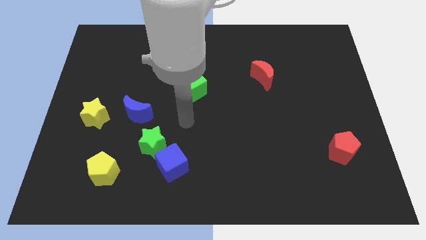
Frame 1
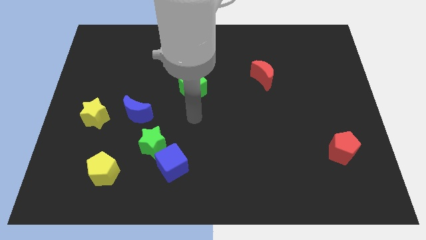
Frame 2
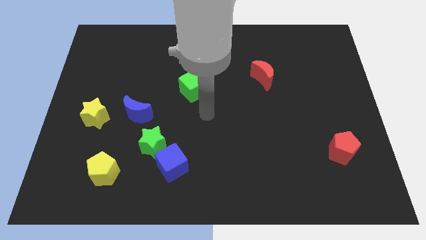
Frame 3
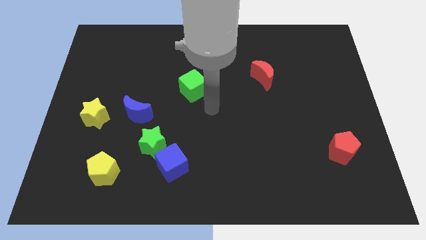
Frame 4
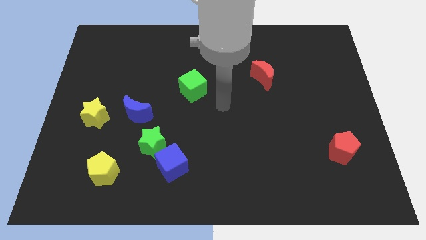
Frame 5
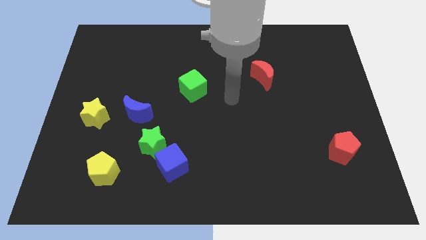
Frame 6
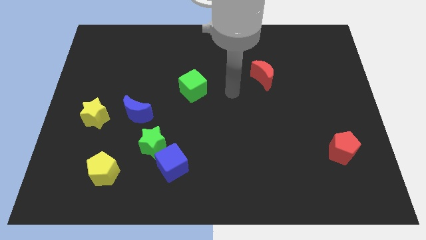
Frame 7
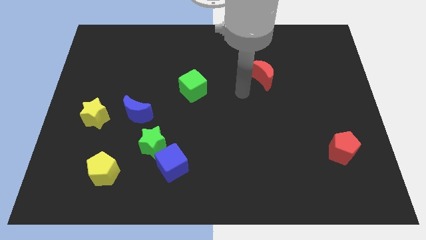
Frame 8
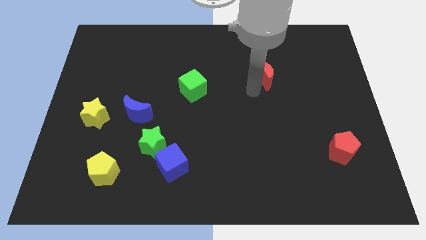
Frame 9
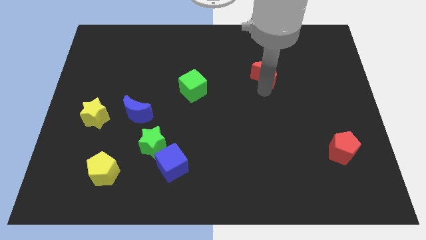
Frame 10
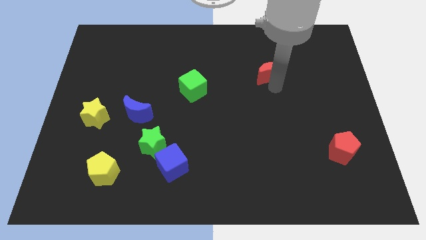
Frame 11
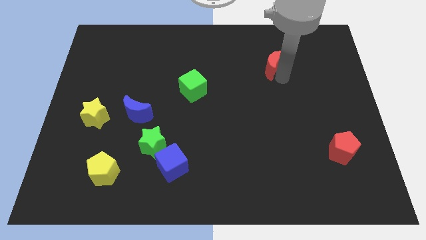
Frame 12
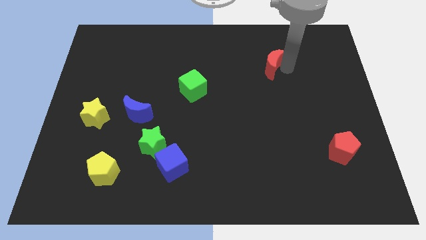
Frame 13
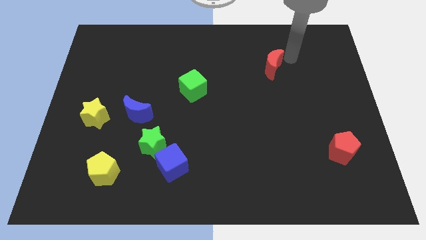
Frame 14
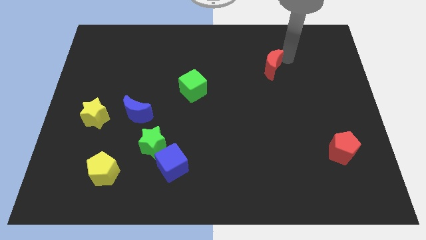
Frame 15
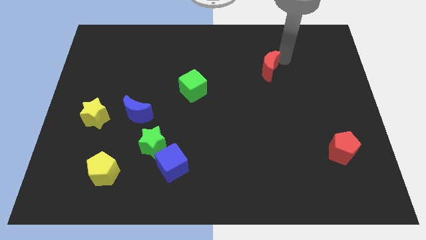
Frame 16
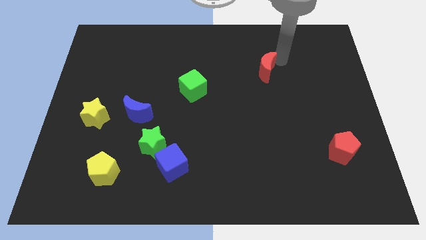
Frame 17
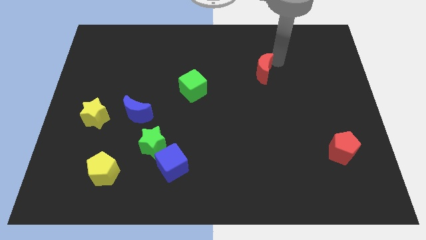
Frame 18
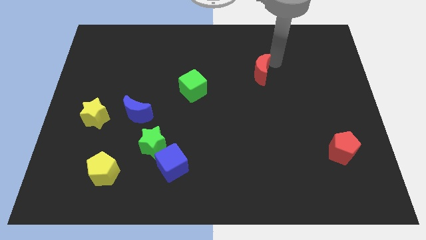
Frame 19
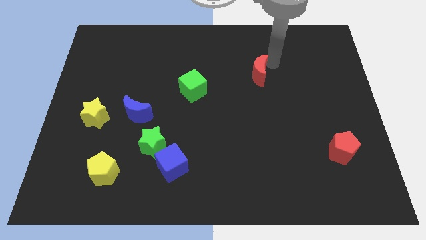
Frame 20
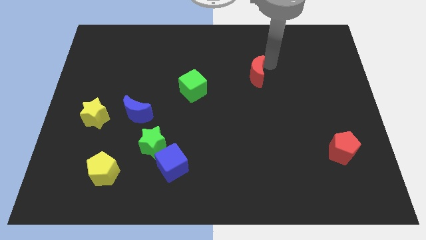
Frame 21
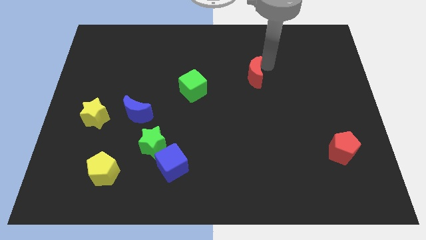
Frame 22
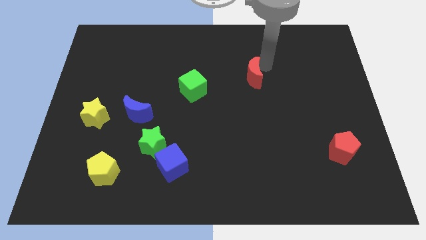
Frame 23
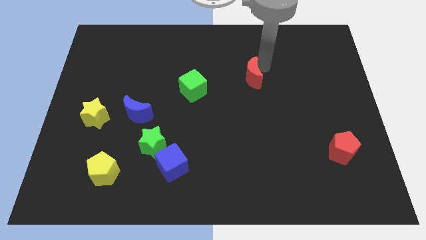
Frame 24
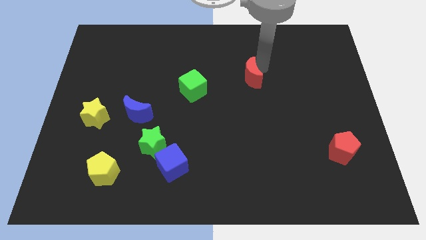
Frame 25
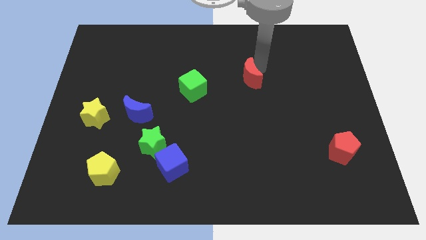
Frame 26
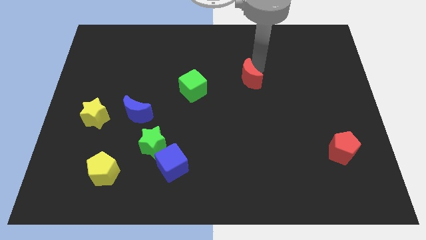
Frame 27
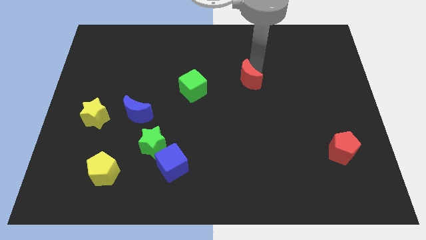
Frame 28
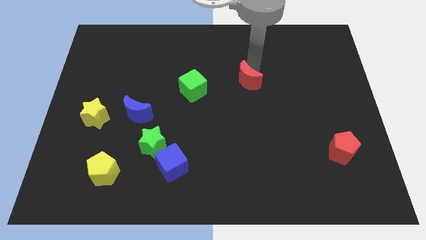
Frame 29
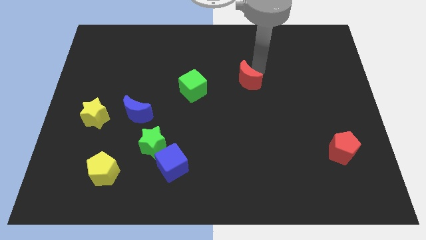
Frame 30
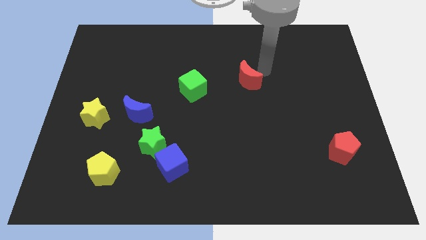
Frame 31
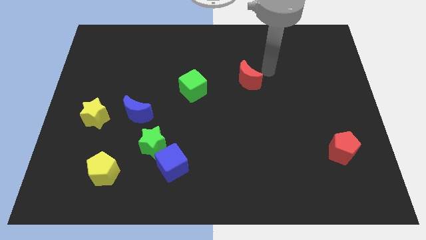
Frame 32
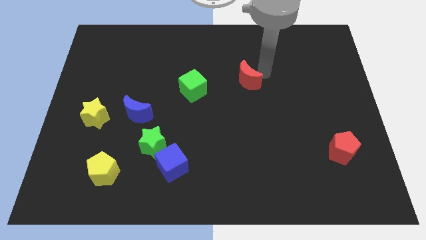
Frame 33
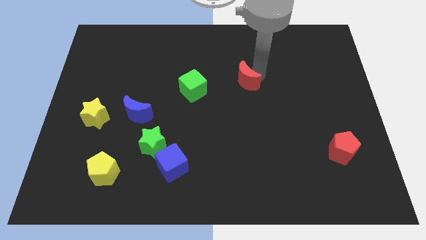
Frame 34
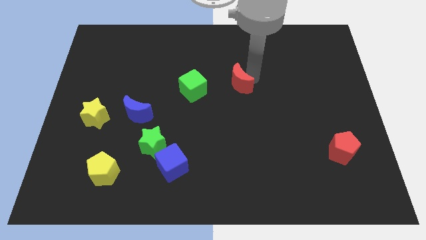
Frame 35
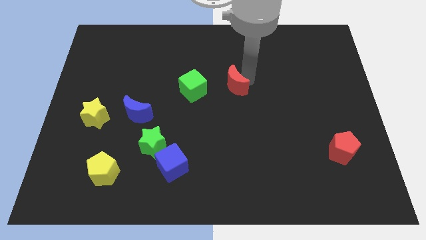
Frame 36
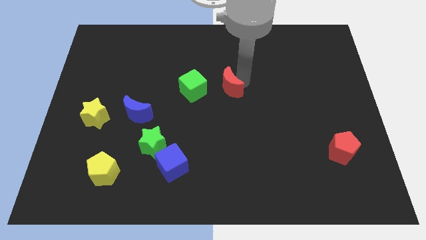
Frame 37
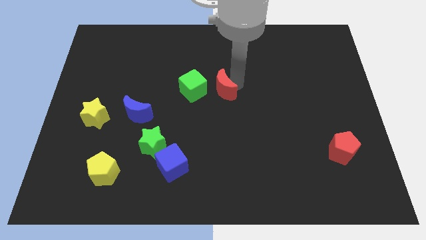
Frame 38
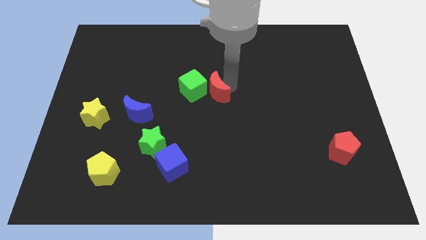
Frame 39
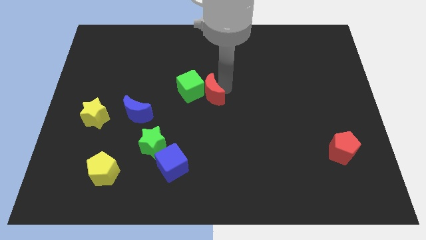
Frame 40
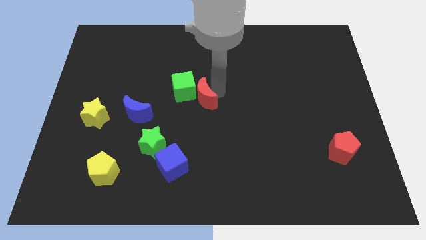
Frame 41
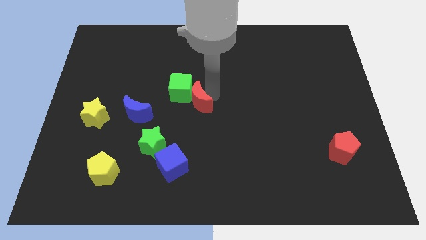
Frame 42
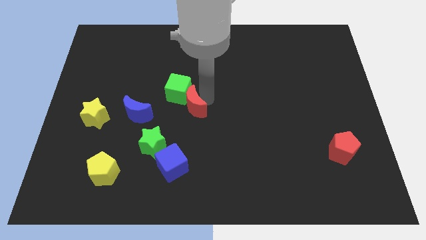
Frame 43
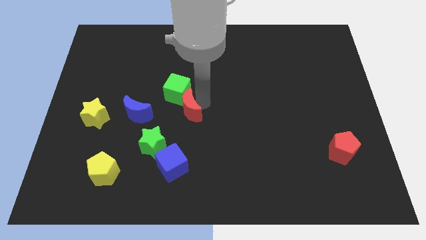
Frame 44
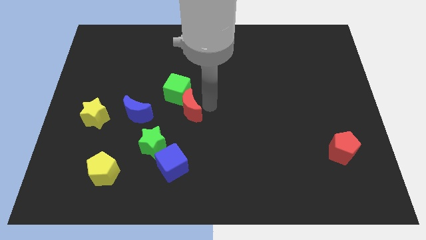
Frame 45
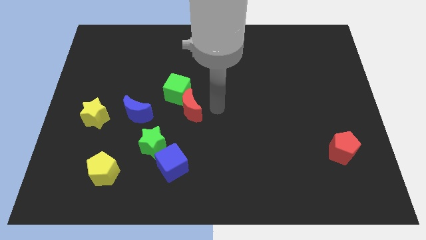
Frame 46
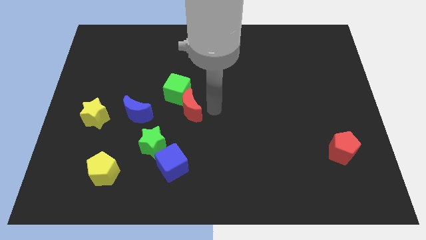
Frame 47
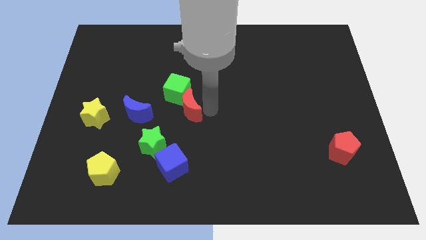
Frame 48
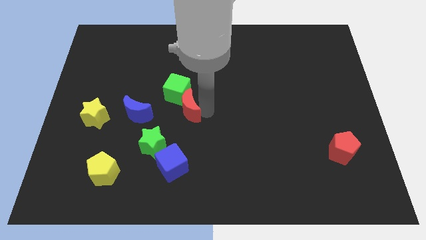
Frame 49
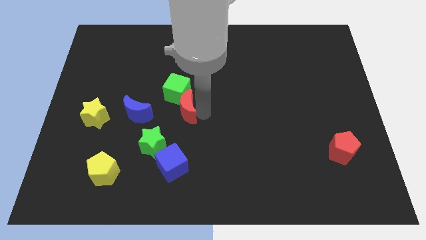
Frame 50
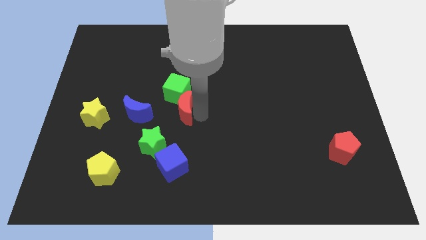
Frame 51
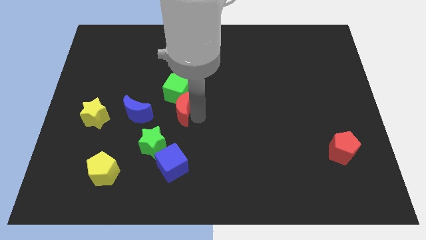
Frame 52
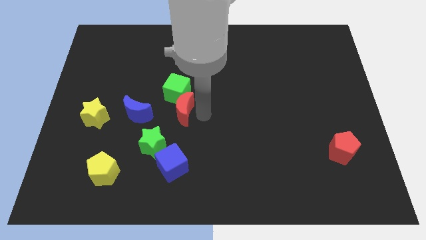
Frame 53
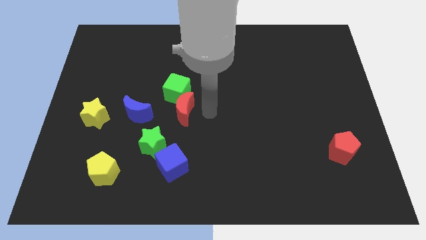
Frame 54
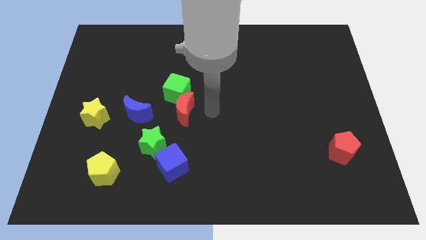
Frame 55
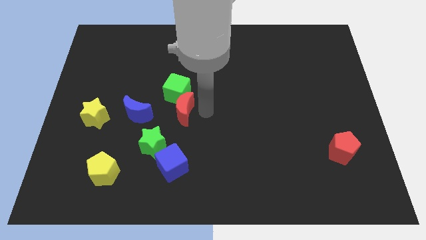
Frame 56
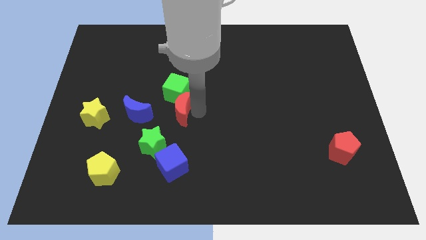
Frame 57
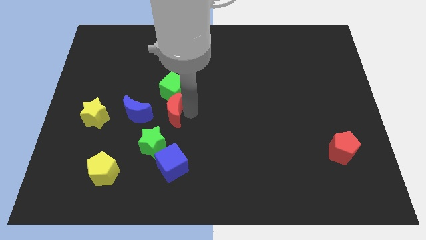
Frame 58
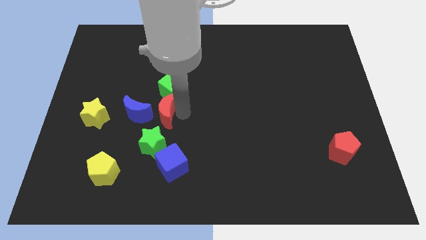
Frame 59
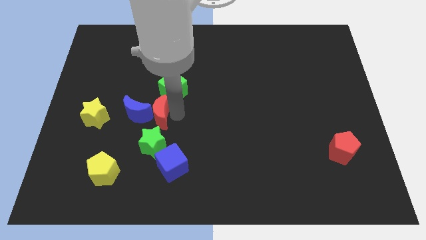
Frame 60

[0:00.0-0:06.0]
push the red moon close to the blue moon

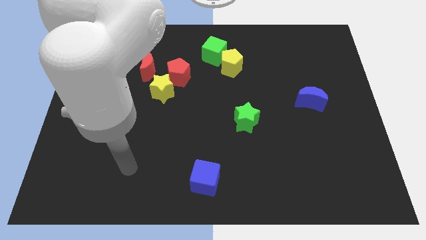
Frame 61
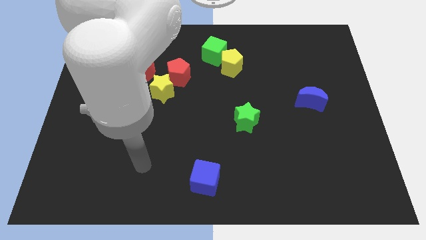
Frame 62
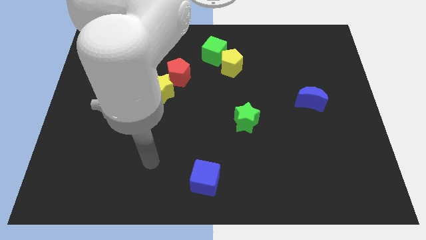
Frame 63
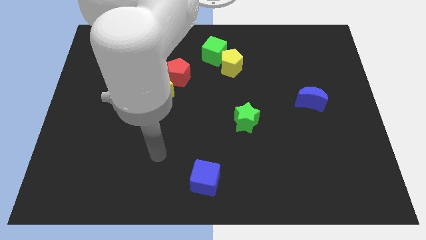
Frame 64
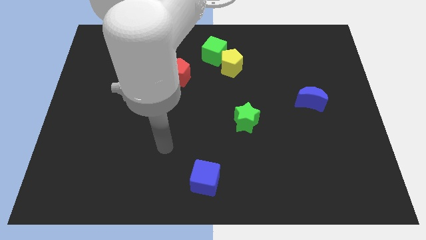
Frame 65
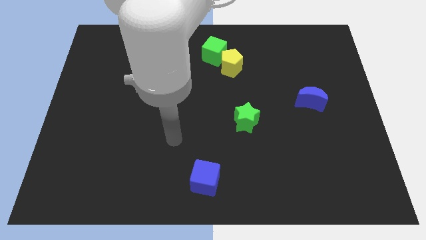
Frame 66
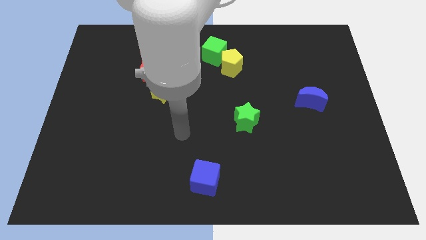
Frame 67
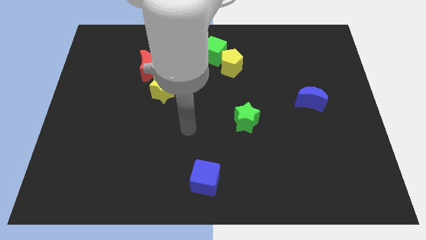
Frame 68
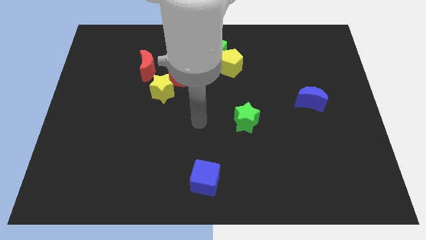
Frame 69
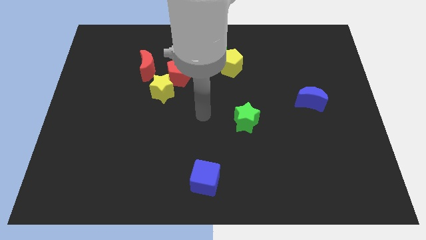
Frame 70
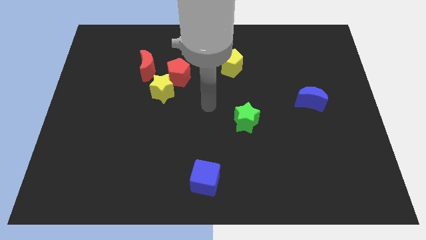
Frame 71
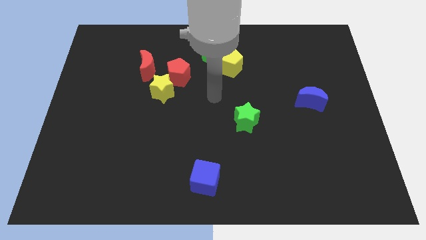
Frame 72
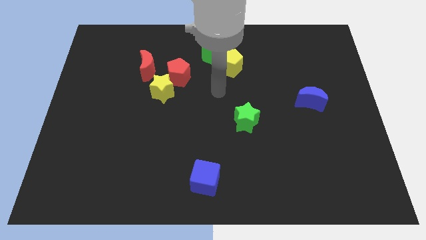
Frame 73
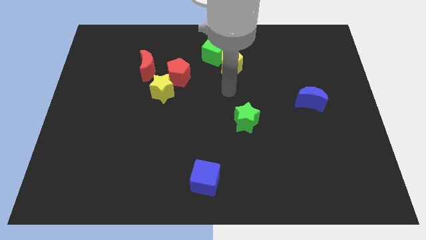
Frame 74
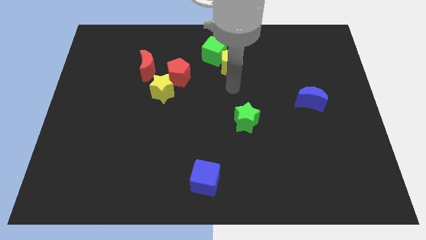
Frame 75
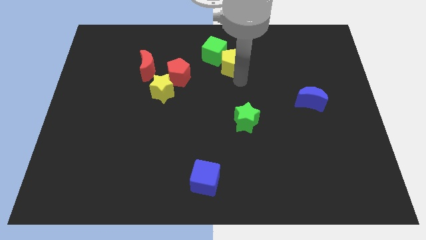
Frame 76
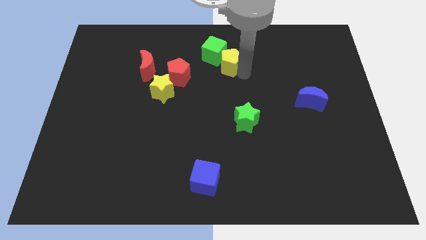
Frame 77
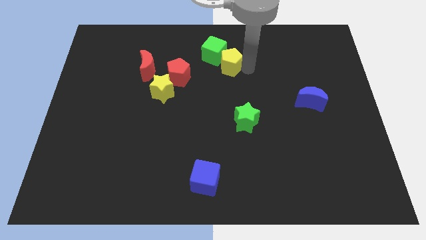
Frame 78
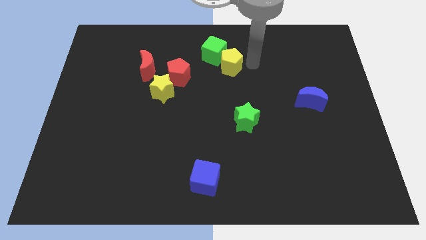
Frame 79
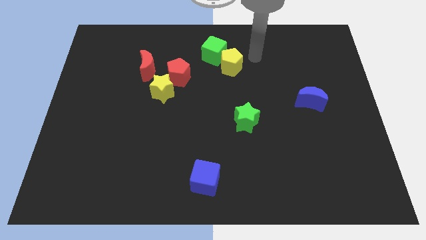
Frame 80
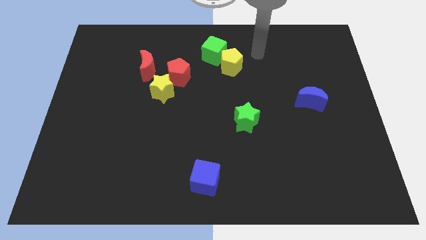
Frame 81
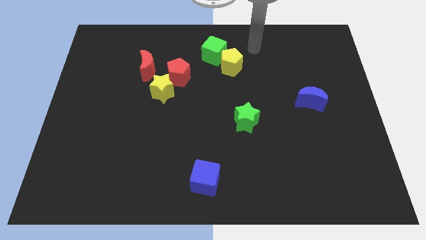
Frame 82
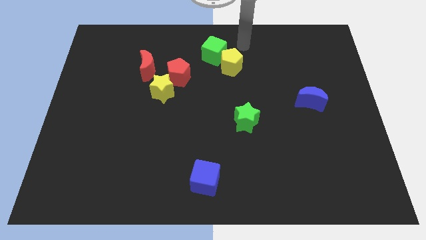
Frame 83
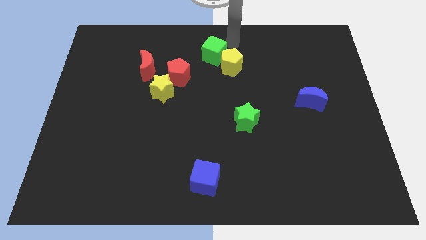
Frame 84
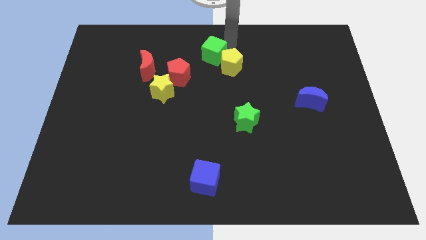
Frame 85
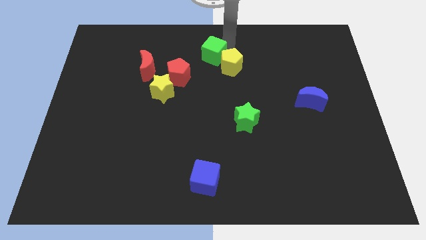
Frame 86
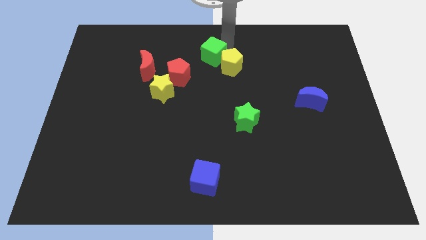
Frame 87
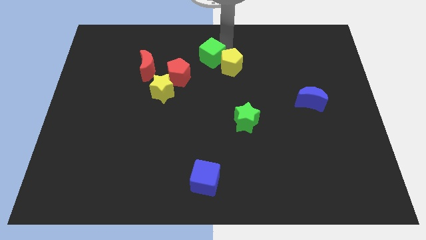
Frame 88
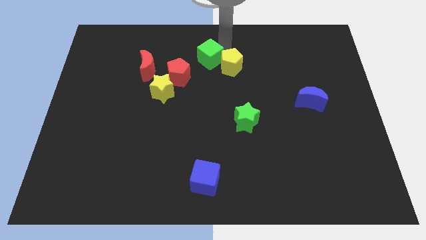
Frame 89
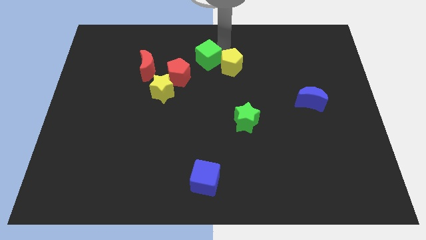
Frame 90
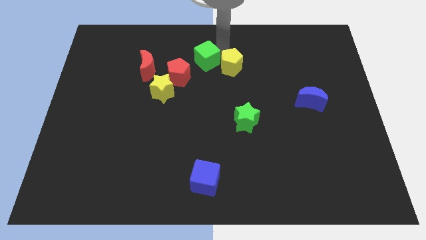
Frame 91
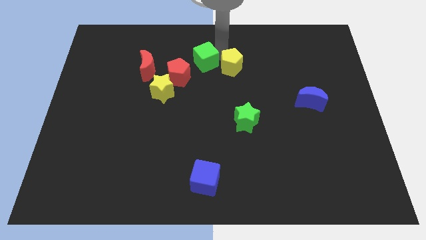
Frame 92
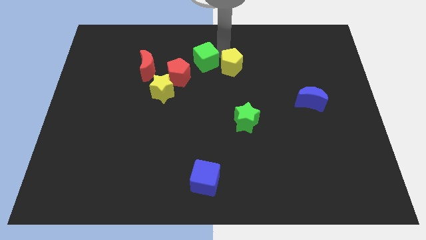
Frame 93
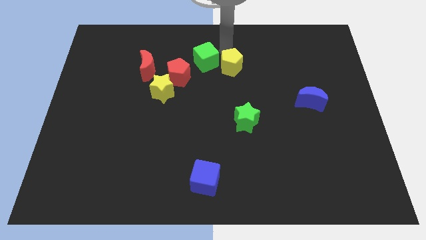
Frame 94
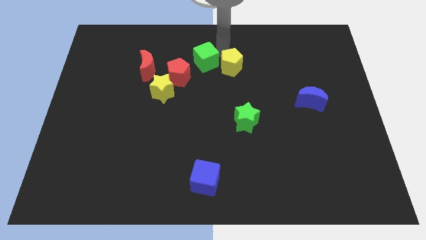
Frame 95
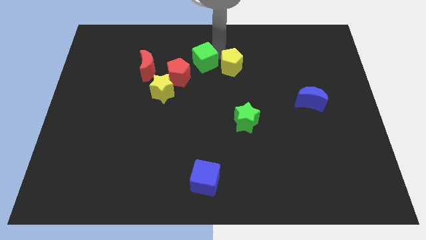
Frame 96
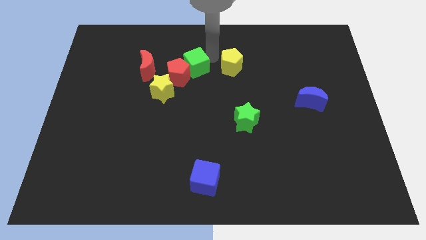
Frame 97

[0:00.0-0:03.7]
move the green cube close to the red pentagon
